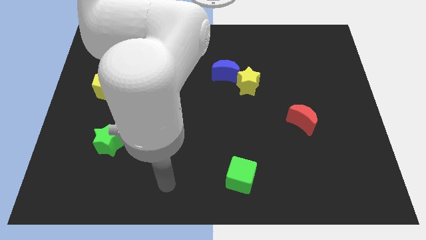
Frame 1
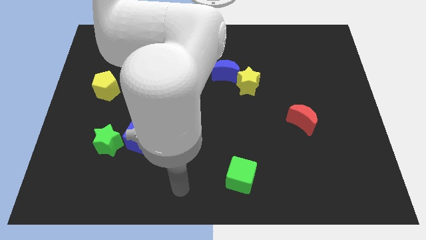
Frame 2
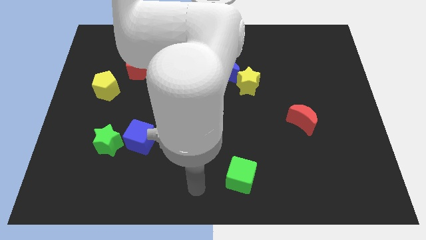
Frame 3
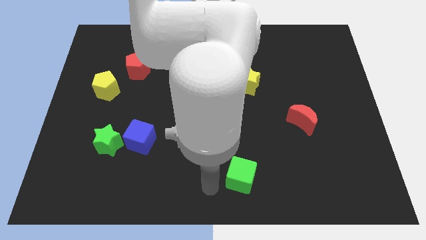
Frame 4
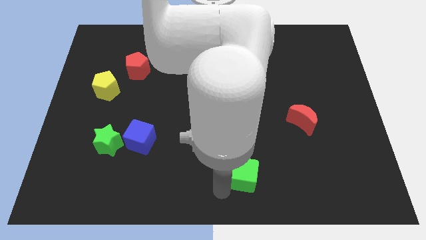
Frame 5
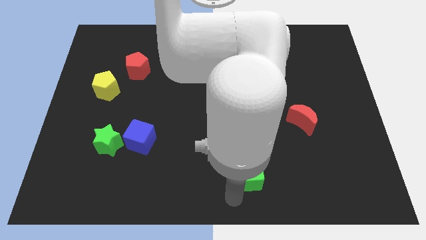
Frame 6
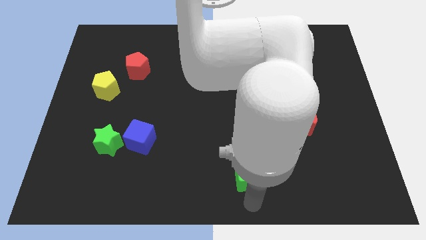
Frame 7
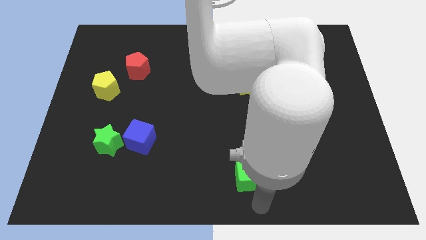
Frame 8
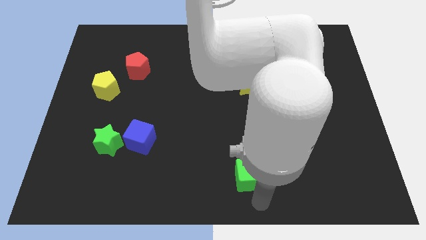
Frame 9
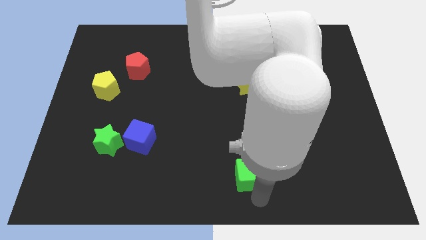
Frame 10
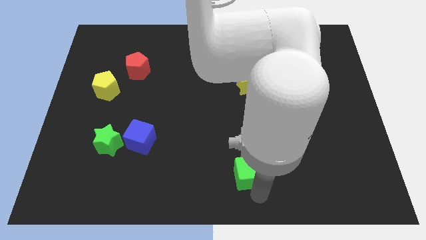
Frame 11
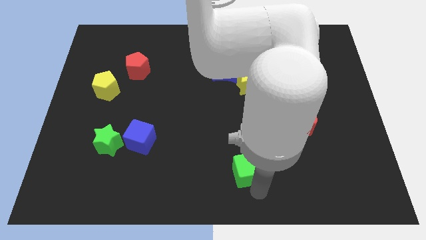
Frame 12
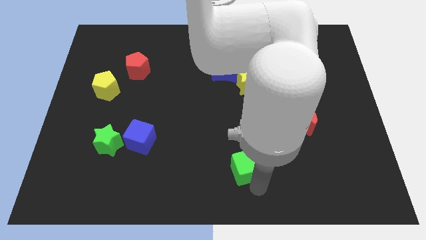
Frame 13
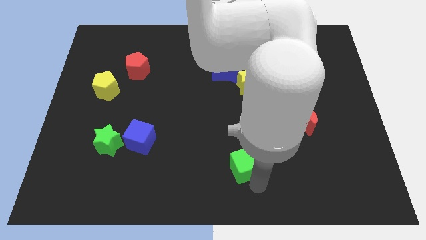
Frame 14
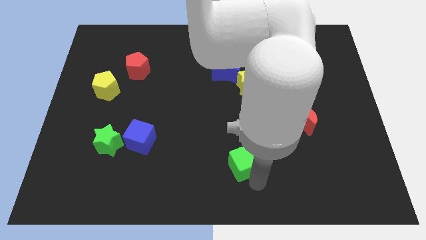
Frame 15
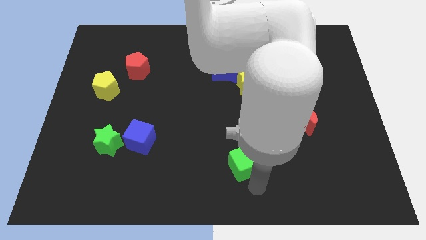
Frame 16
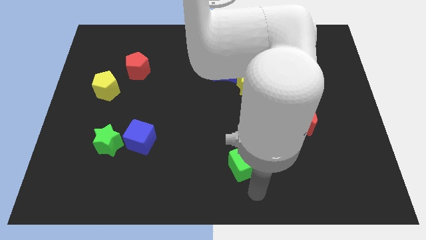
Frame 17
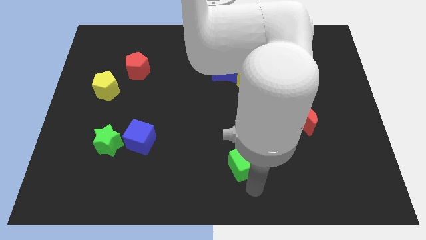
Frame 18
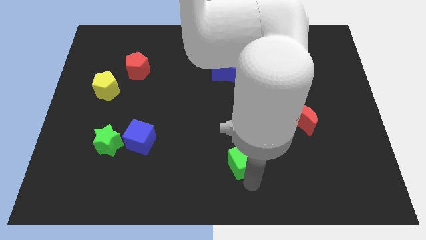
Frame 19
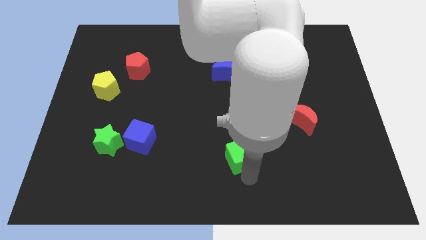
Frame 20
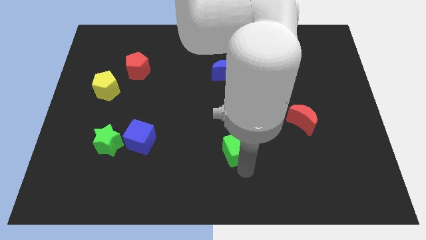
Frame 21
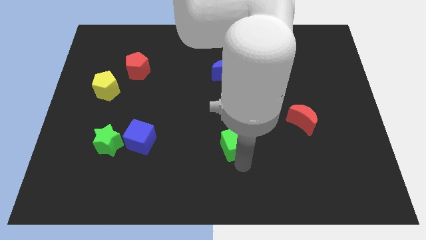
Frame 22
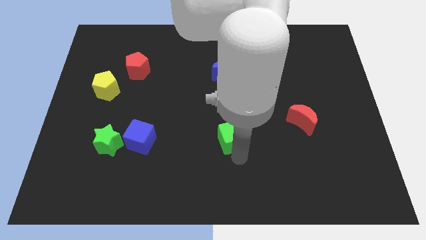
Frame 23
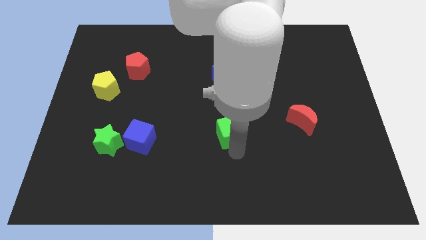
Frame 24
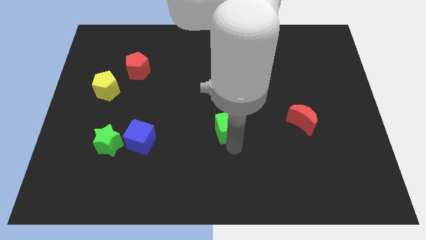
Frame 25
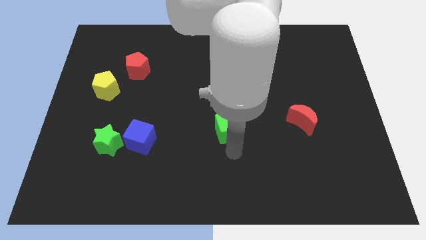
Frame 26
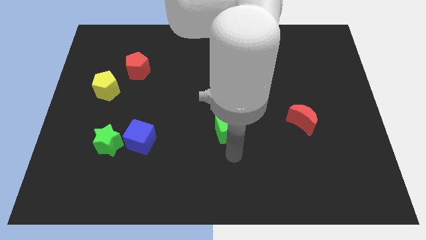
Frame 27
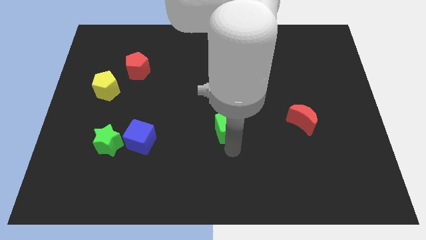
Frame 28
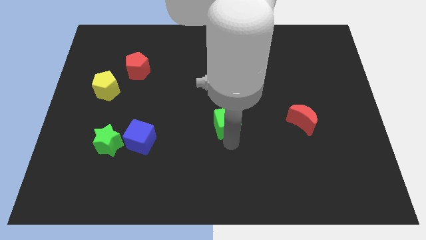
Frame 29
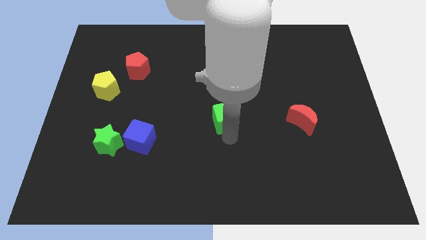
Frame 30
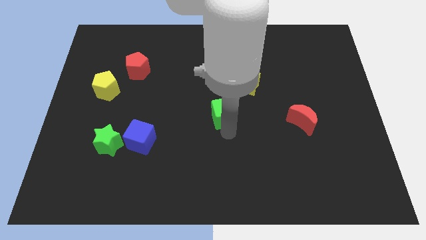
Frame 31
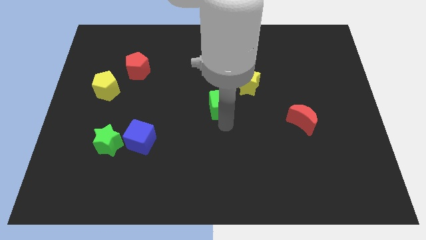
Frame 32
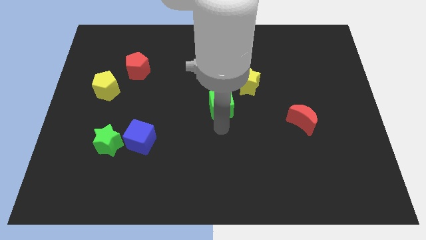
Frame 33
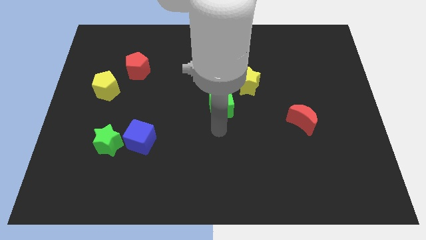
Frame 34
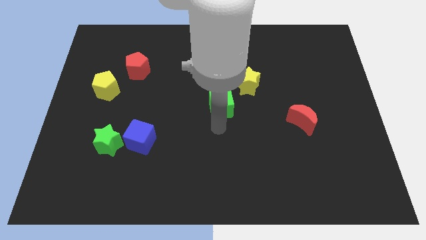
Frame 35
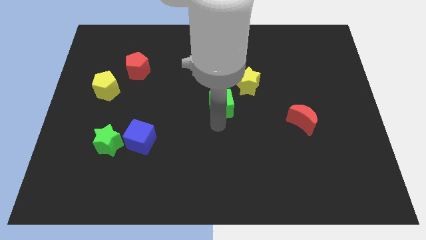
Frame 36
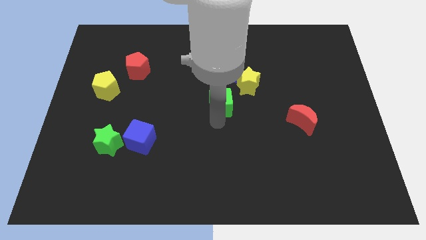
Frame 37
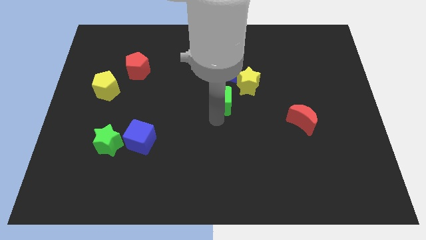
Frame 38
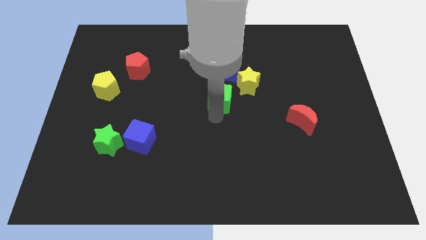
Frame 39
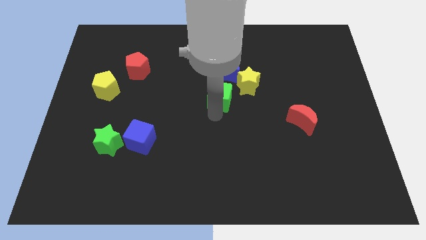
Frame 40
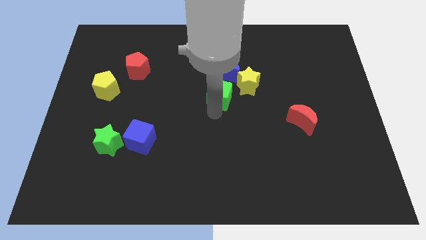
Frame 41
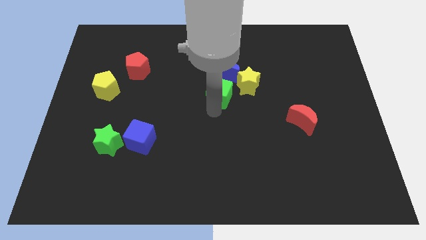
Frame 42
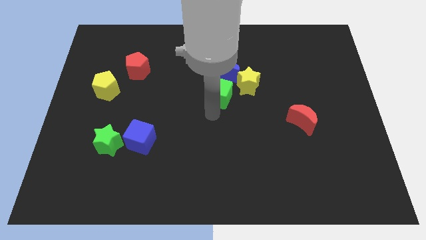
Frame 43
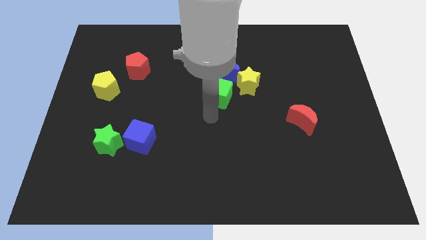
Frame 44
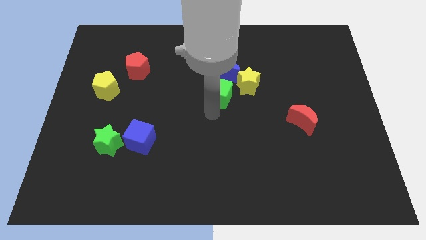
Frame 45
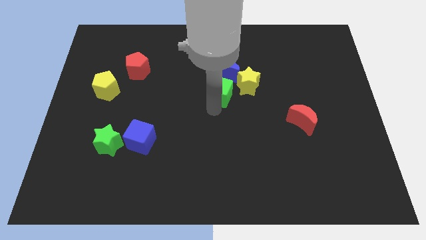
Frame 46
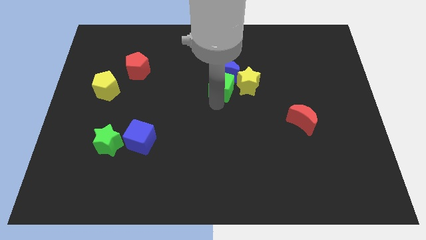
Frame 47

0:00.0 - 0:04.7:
move the green cube to the blue moon
